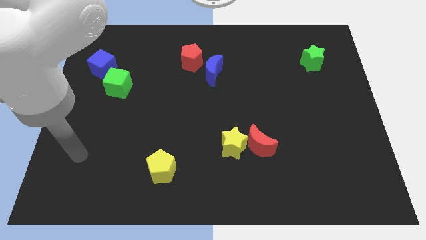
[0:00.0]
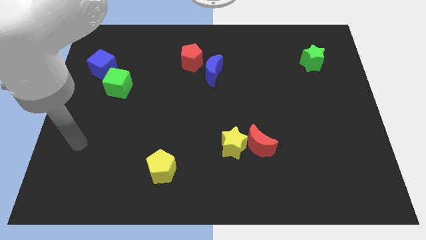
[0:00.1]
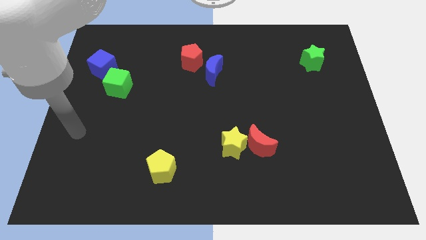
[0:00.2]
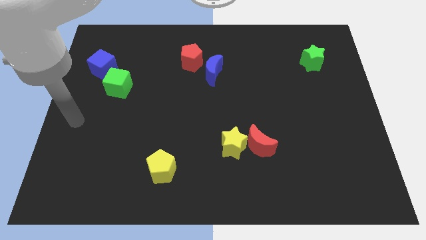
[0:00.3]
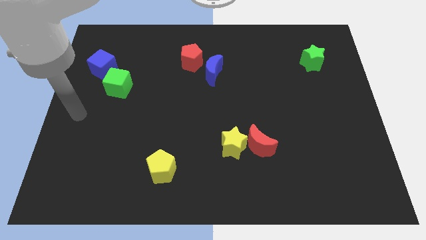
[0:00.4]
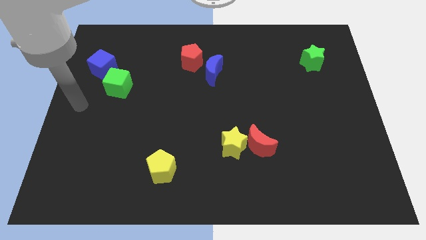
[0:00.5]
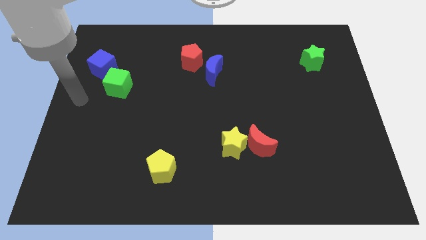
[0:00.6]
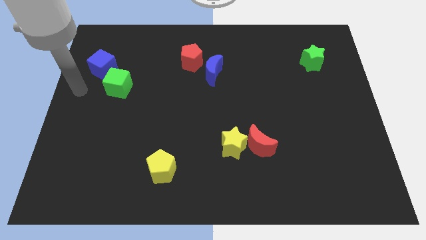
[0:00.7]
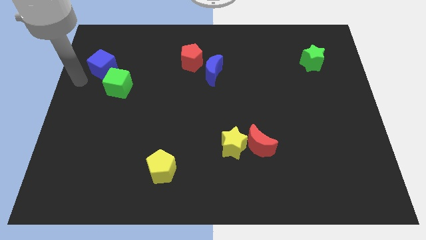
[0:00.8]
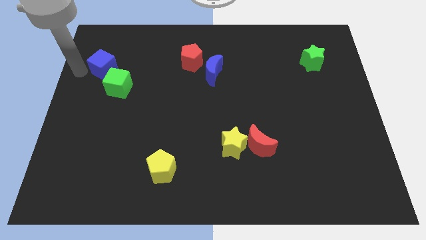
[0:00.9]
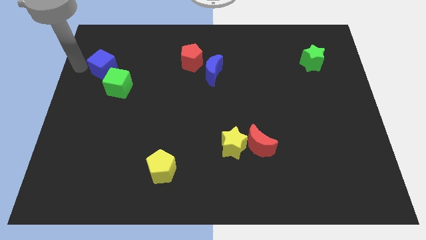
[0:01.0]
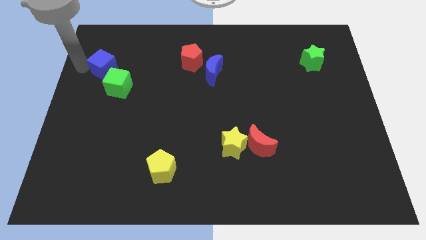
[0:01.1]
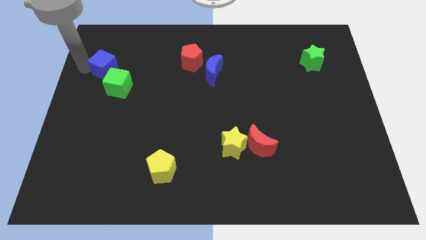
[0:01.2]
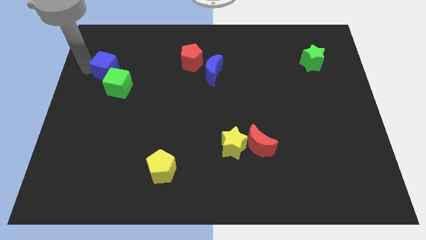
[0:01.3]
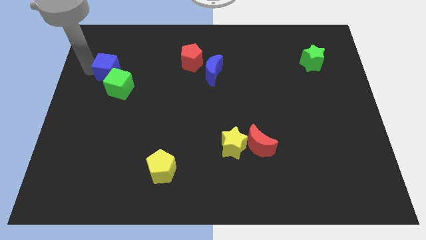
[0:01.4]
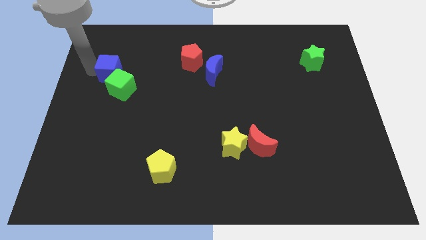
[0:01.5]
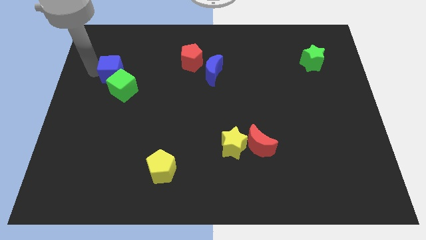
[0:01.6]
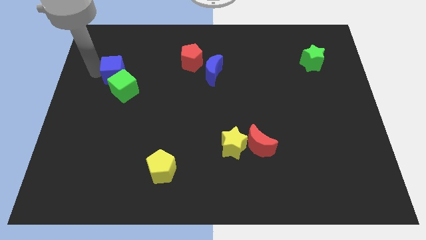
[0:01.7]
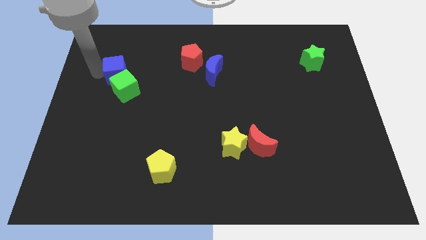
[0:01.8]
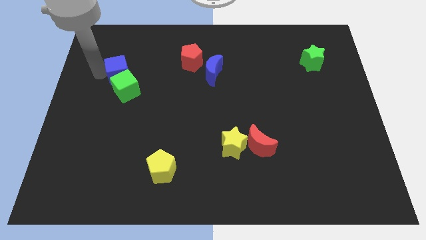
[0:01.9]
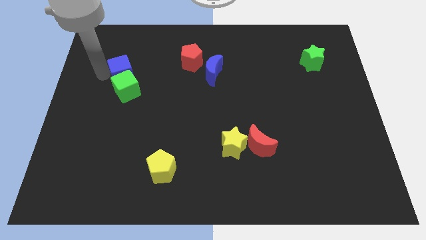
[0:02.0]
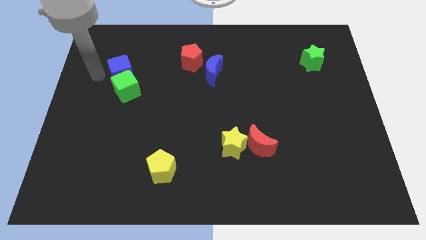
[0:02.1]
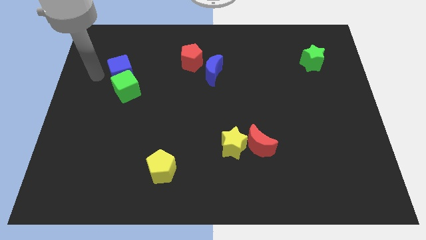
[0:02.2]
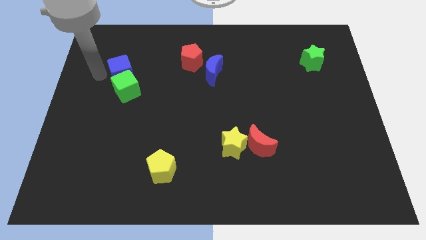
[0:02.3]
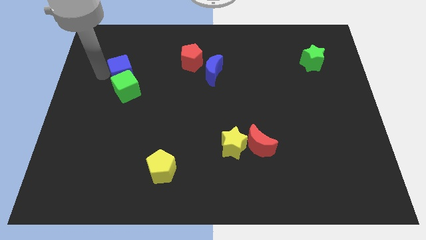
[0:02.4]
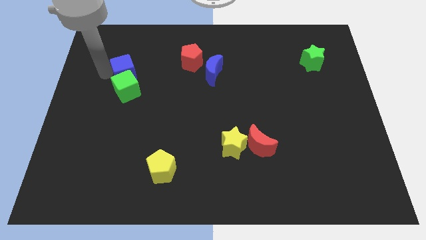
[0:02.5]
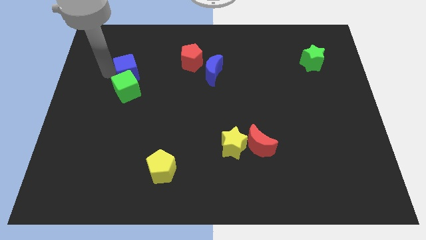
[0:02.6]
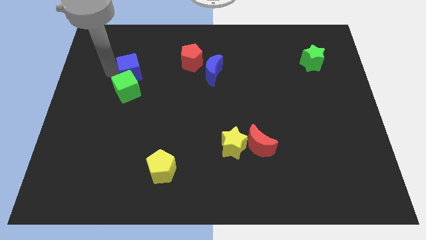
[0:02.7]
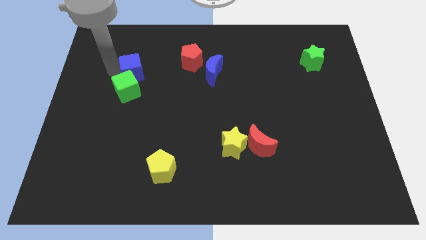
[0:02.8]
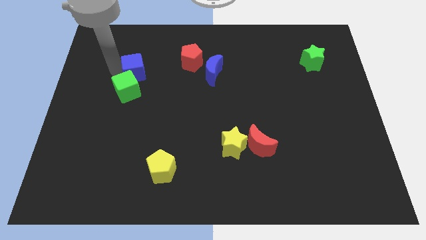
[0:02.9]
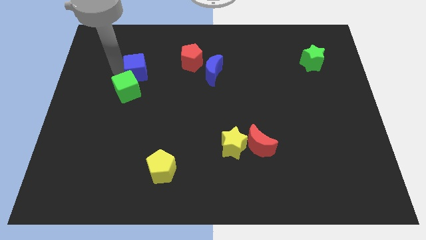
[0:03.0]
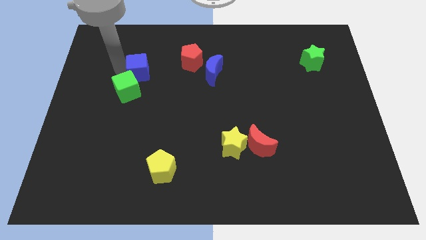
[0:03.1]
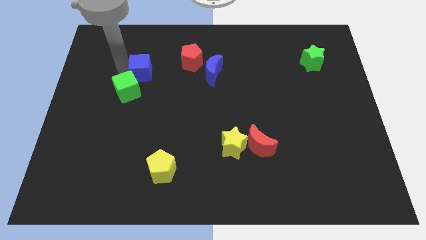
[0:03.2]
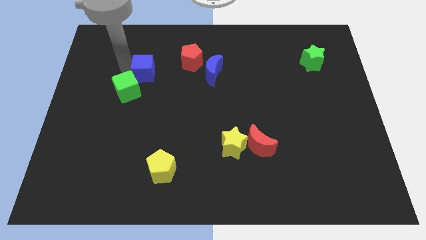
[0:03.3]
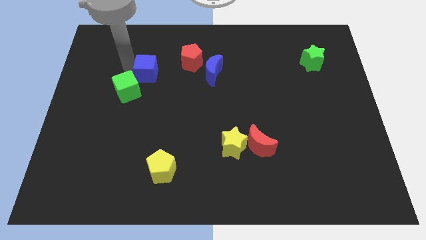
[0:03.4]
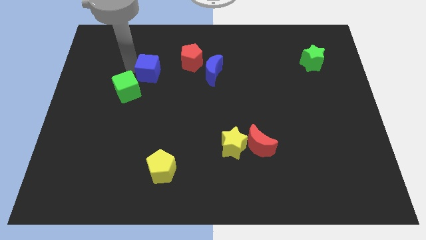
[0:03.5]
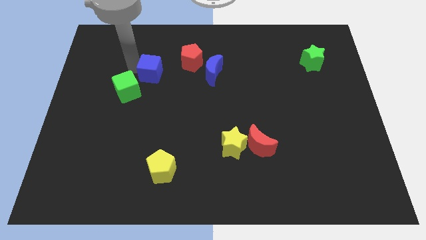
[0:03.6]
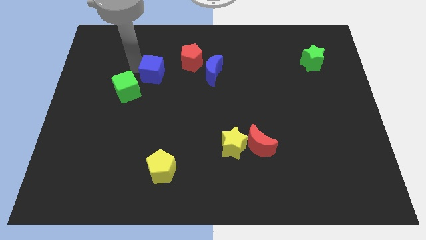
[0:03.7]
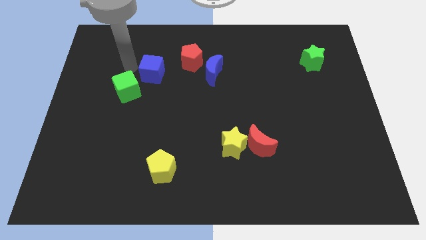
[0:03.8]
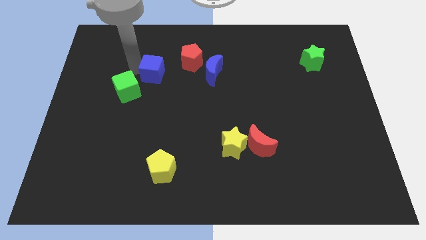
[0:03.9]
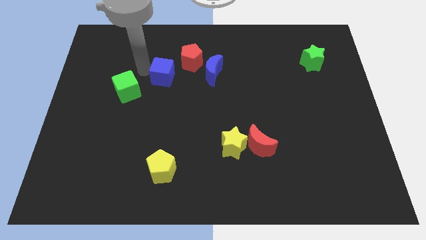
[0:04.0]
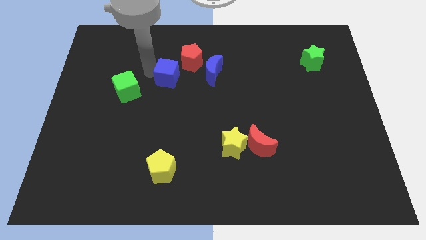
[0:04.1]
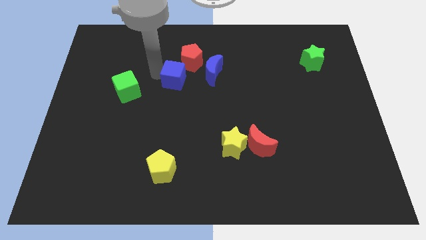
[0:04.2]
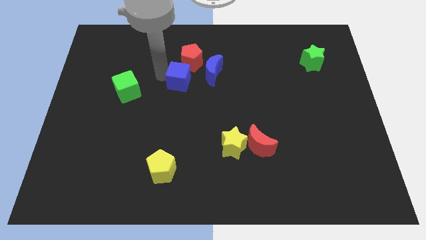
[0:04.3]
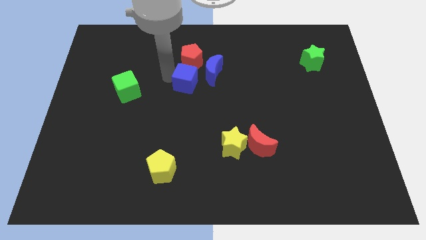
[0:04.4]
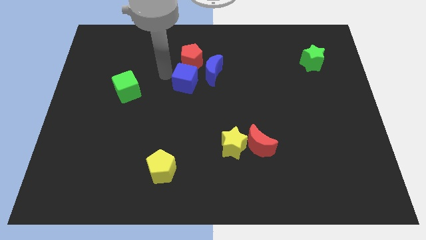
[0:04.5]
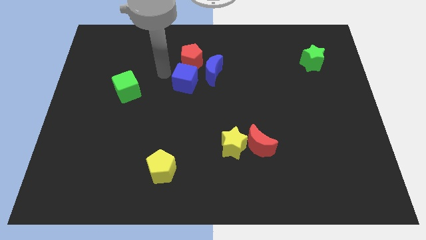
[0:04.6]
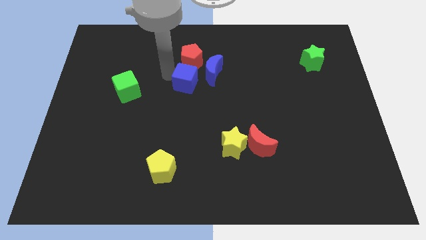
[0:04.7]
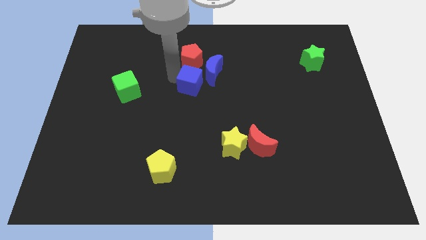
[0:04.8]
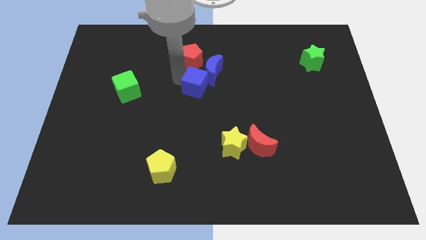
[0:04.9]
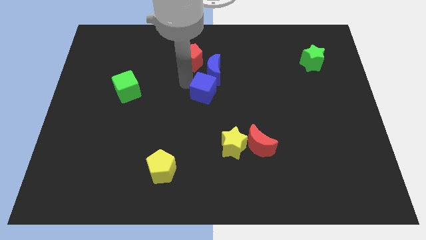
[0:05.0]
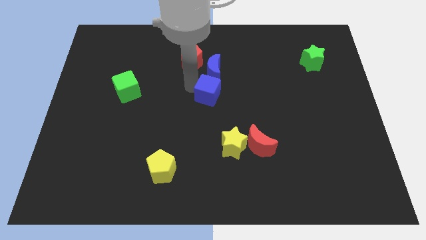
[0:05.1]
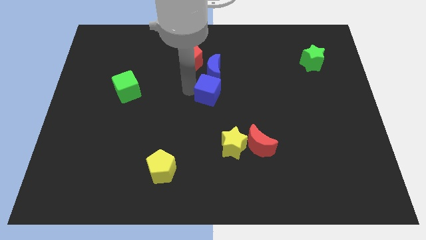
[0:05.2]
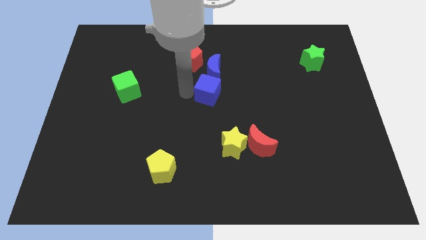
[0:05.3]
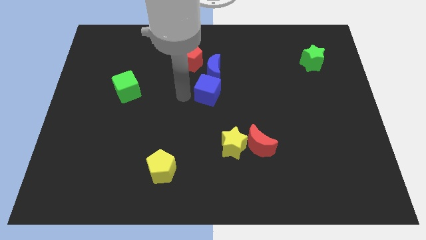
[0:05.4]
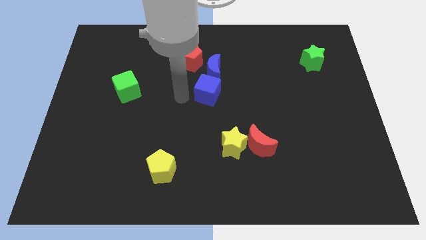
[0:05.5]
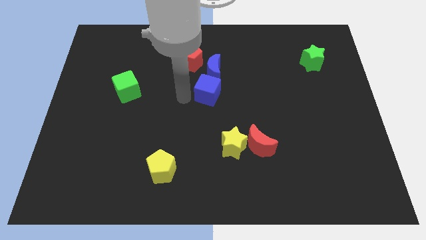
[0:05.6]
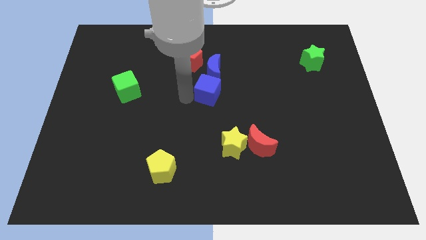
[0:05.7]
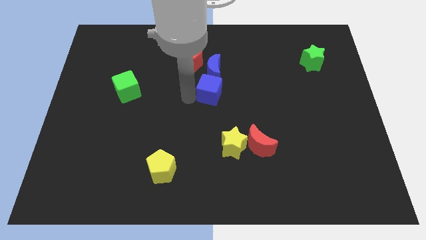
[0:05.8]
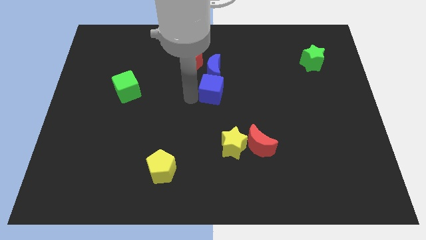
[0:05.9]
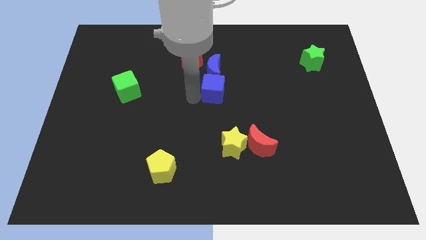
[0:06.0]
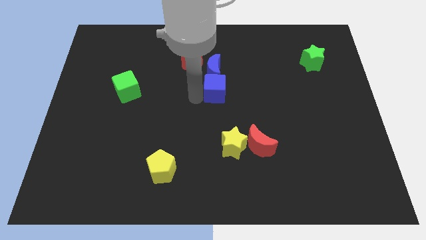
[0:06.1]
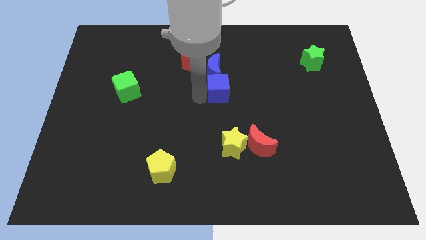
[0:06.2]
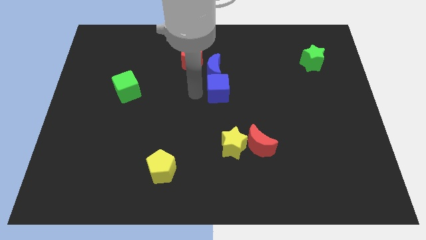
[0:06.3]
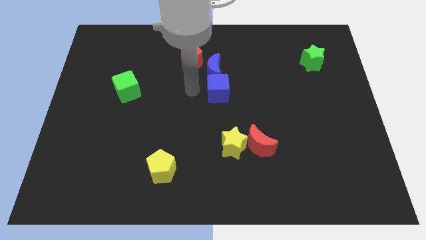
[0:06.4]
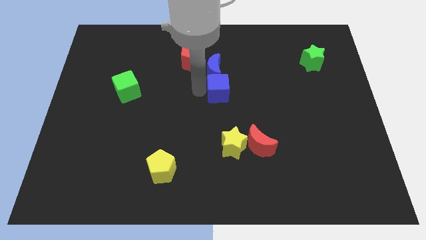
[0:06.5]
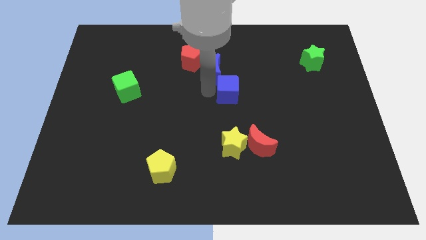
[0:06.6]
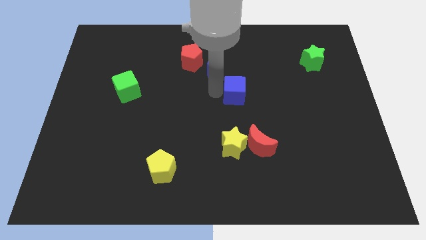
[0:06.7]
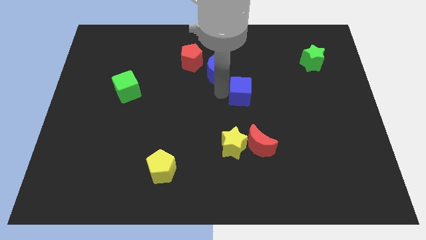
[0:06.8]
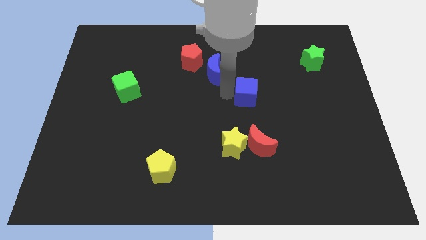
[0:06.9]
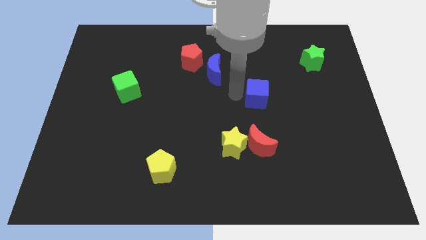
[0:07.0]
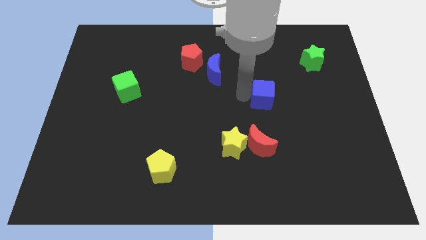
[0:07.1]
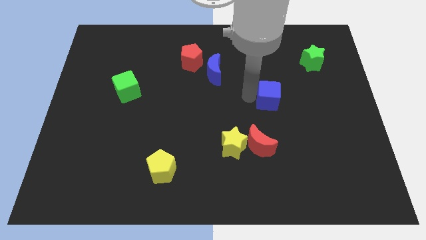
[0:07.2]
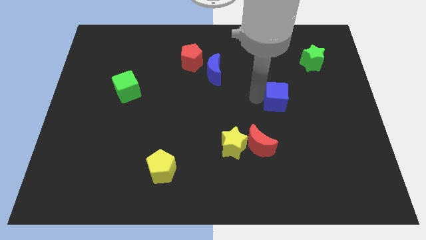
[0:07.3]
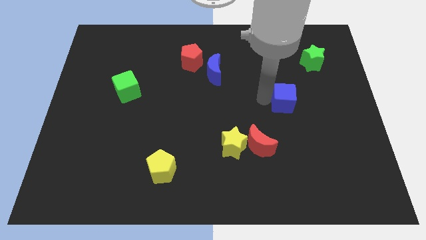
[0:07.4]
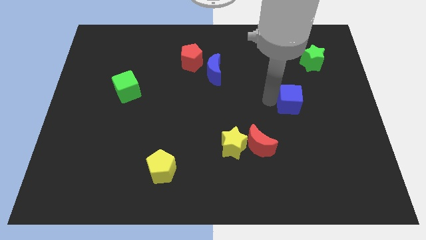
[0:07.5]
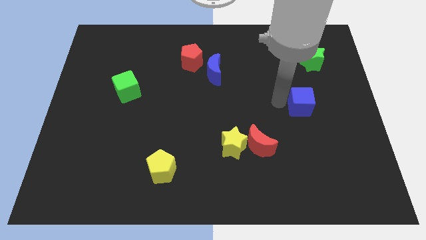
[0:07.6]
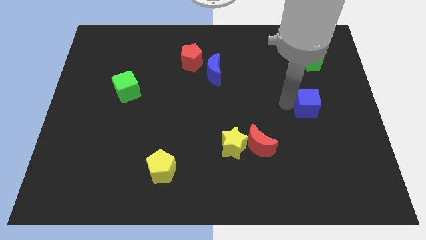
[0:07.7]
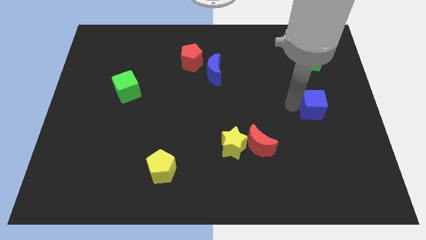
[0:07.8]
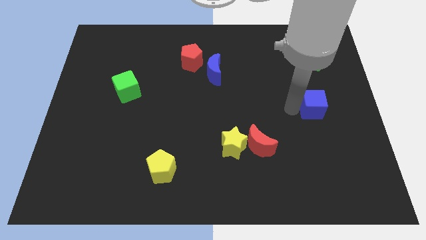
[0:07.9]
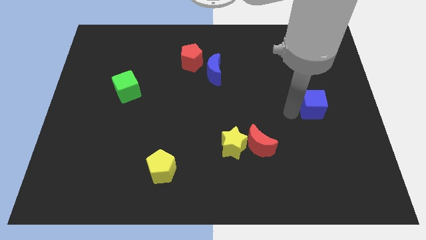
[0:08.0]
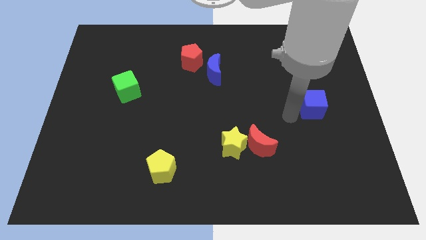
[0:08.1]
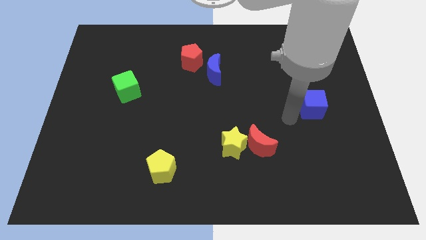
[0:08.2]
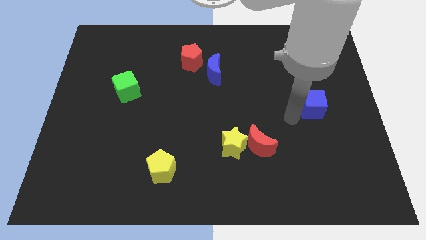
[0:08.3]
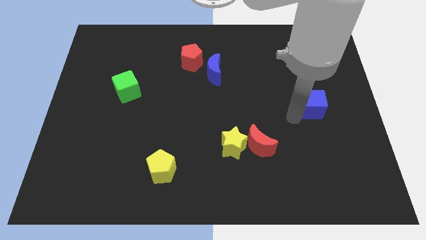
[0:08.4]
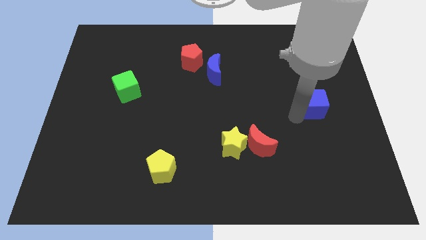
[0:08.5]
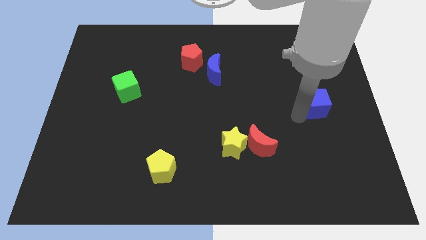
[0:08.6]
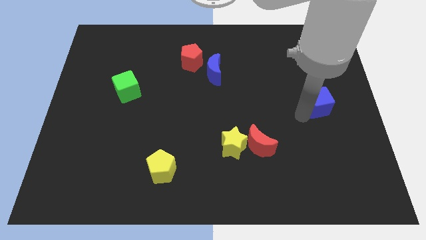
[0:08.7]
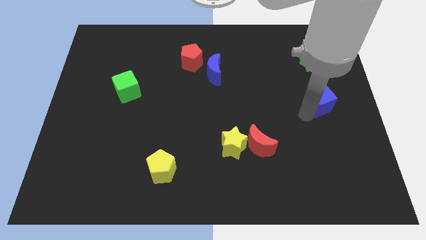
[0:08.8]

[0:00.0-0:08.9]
slide the blue cube to the center right
